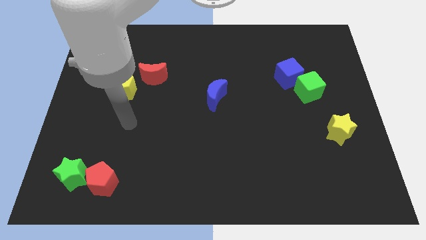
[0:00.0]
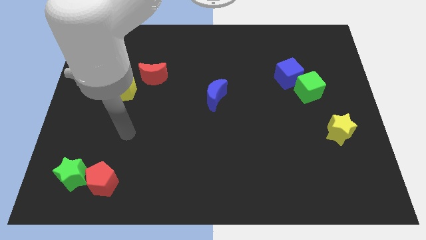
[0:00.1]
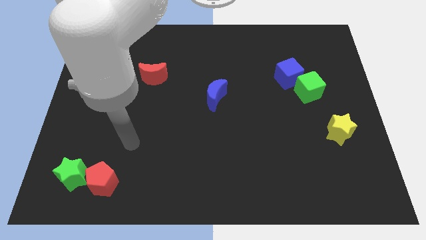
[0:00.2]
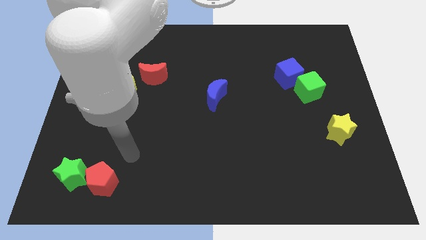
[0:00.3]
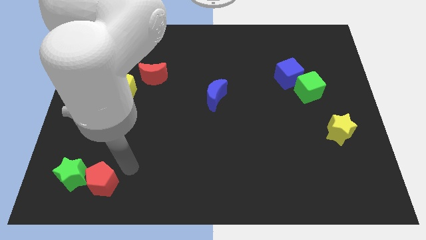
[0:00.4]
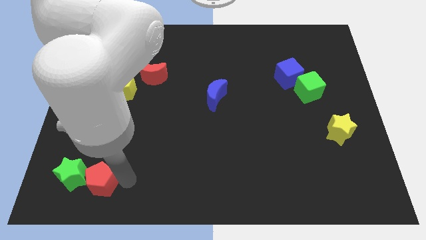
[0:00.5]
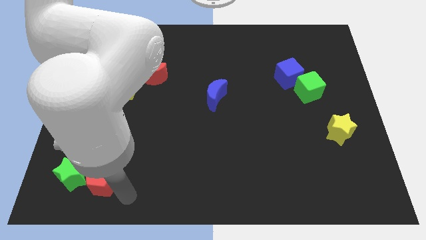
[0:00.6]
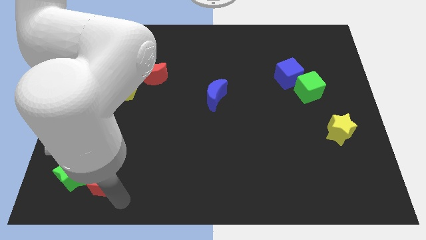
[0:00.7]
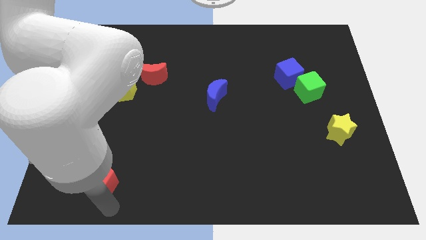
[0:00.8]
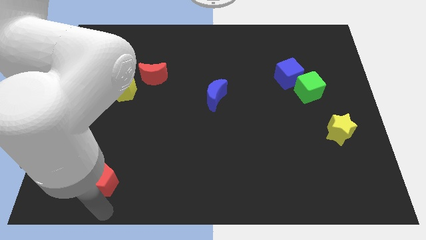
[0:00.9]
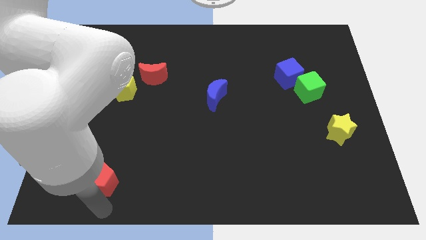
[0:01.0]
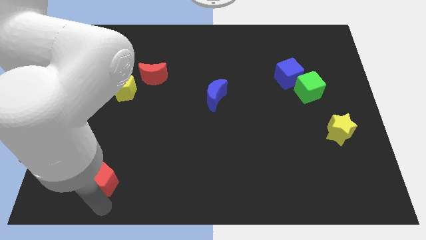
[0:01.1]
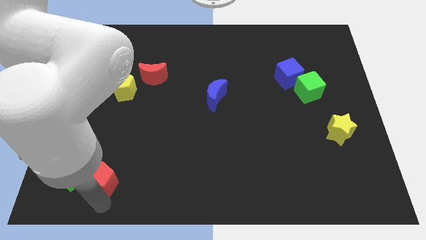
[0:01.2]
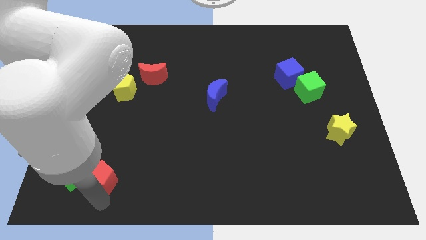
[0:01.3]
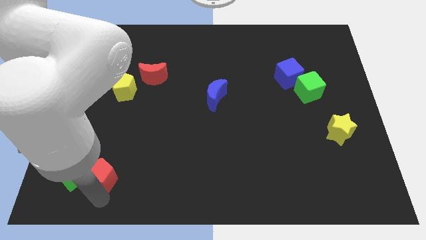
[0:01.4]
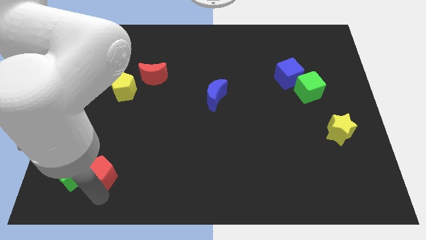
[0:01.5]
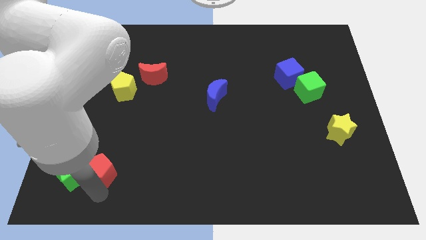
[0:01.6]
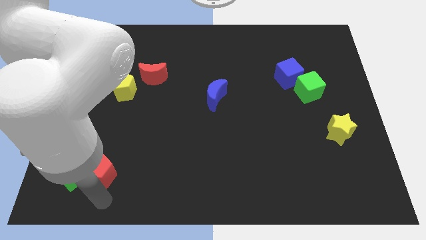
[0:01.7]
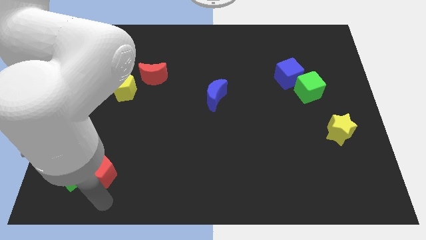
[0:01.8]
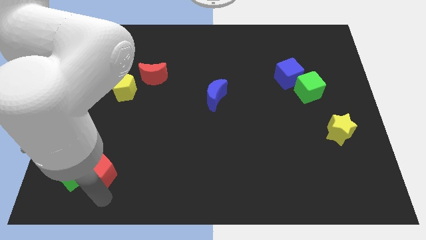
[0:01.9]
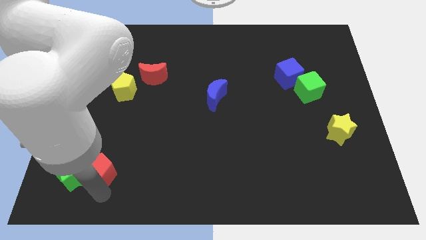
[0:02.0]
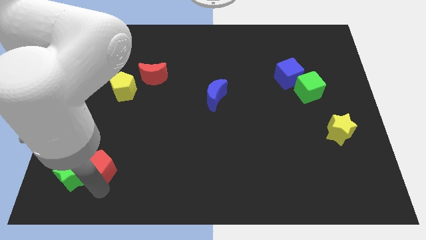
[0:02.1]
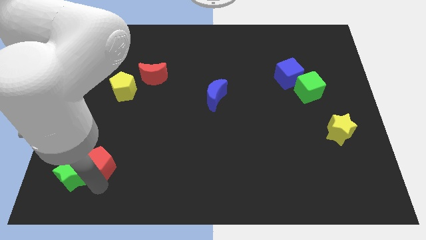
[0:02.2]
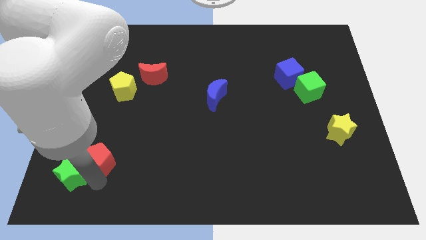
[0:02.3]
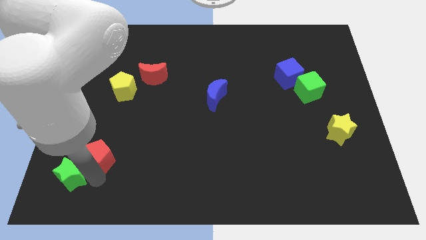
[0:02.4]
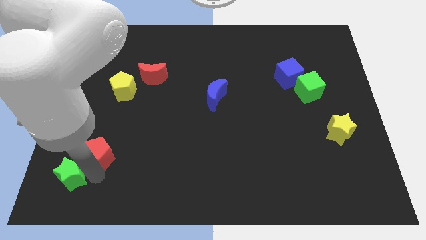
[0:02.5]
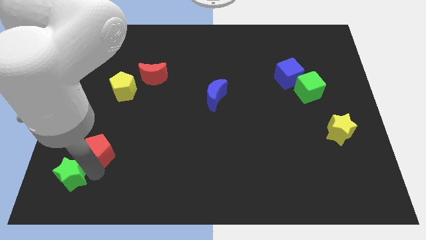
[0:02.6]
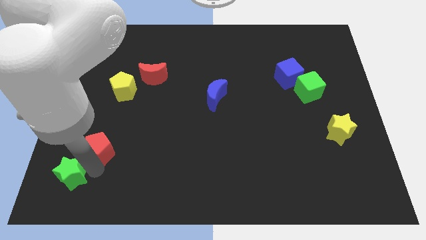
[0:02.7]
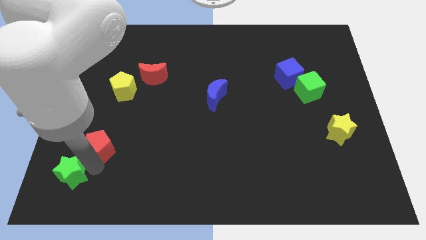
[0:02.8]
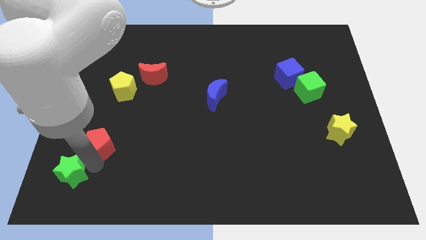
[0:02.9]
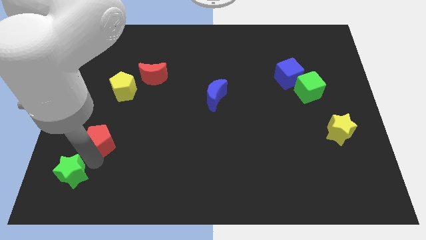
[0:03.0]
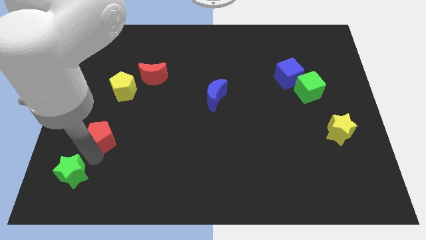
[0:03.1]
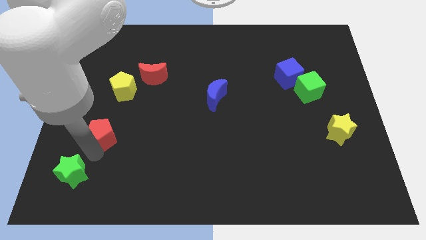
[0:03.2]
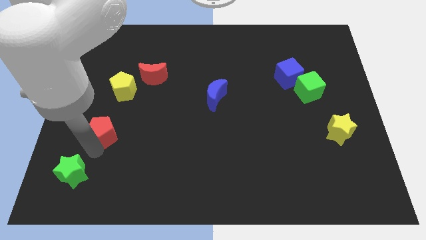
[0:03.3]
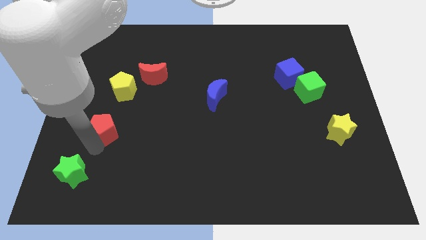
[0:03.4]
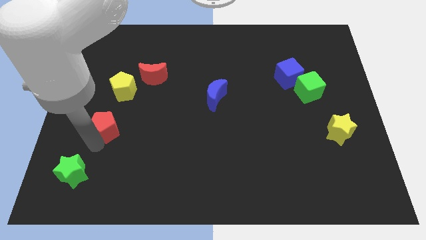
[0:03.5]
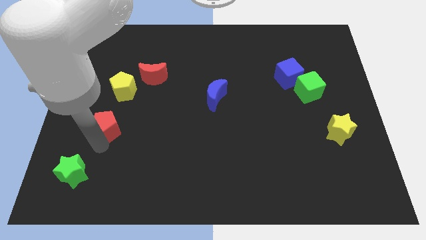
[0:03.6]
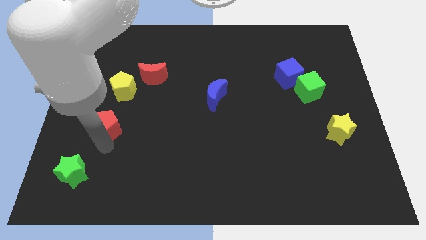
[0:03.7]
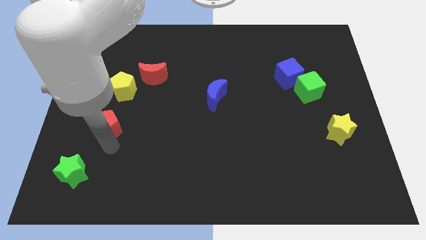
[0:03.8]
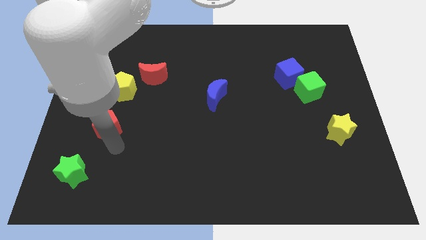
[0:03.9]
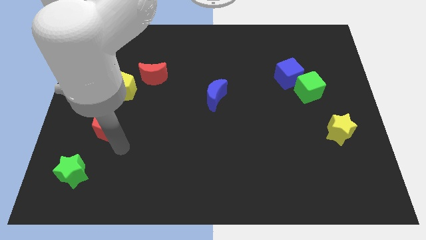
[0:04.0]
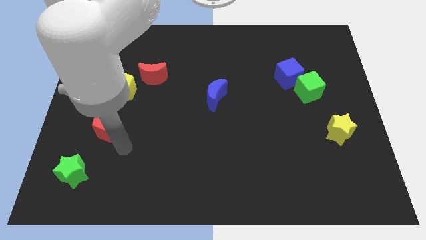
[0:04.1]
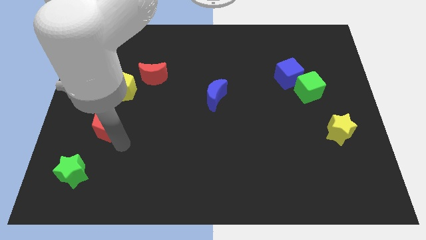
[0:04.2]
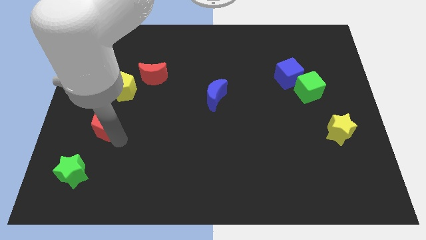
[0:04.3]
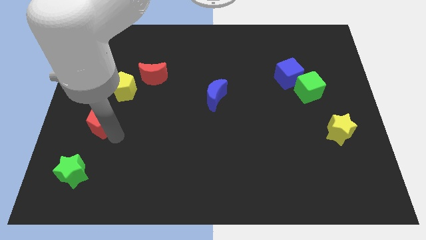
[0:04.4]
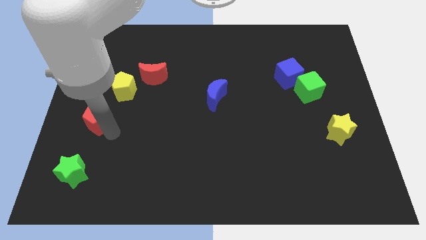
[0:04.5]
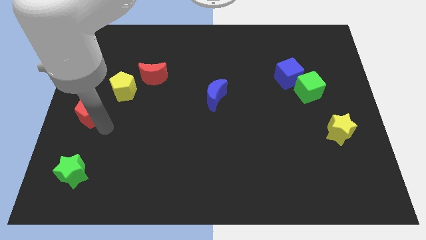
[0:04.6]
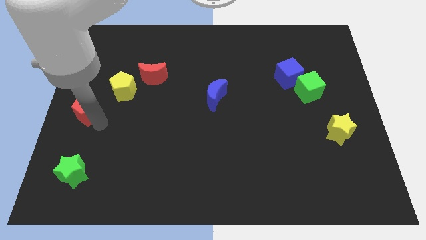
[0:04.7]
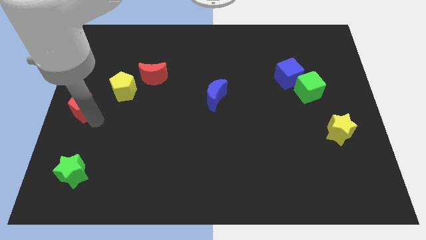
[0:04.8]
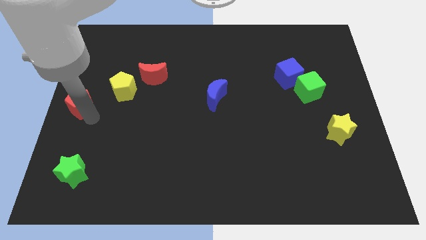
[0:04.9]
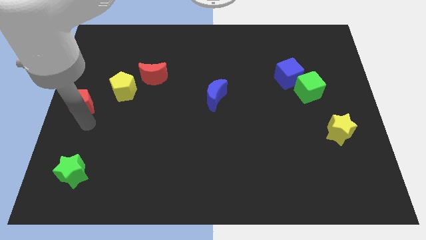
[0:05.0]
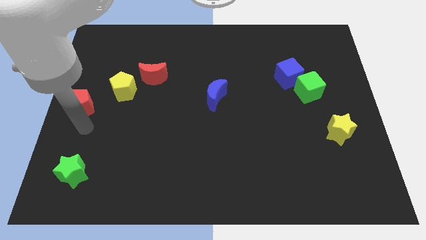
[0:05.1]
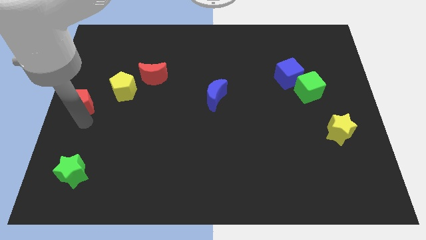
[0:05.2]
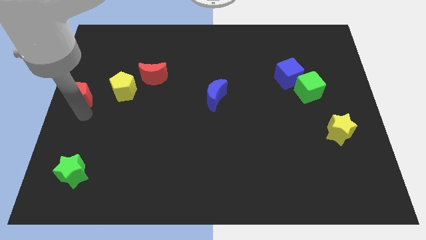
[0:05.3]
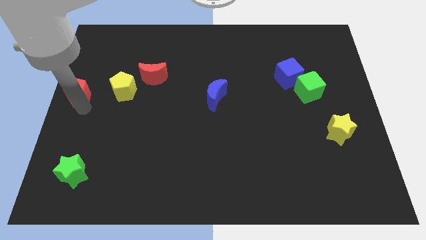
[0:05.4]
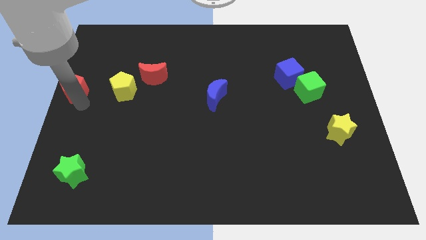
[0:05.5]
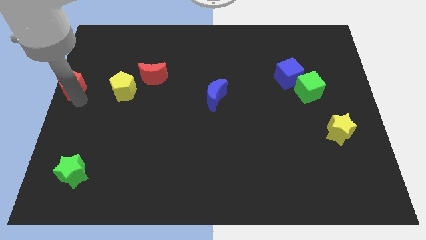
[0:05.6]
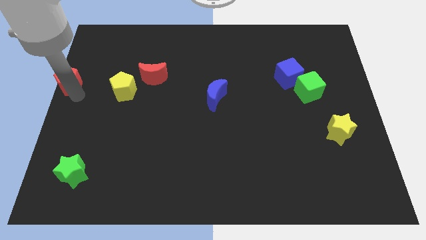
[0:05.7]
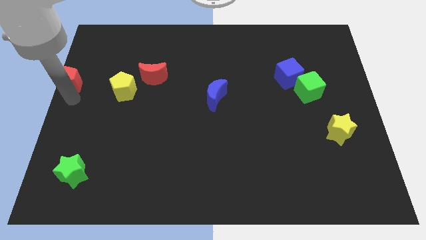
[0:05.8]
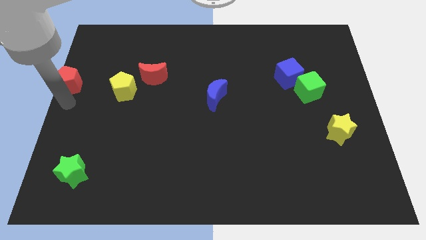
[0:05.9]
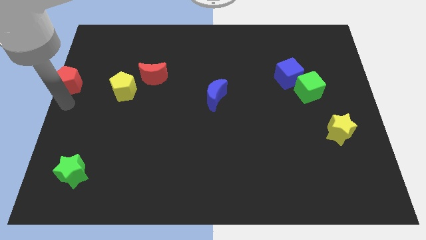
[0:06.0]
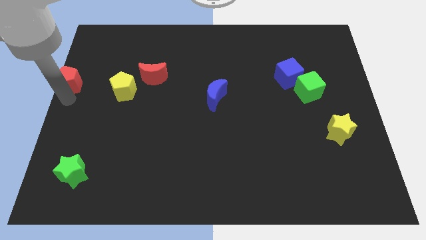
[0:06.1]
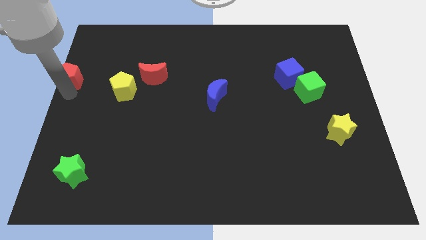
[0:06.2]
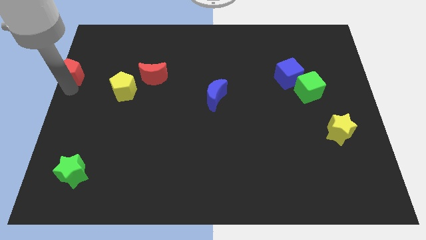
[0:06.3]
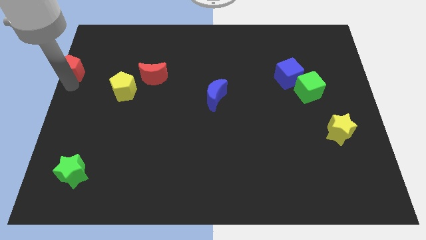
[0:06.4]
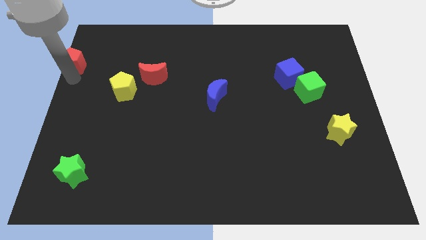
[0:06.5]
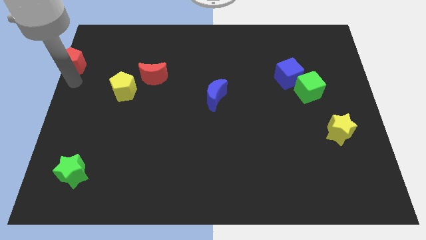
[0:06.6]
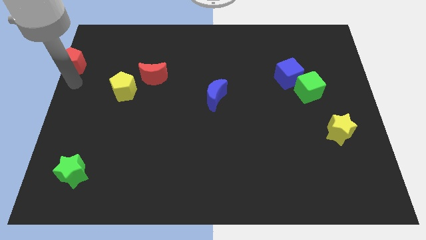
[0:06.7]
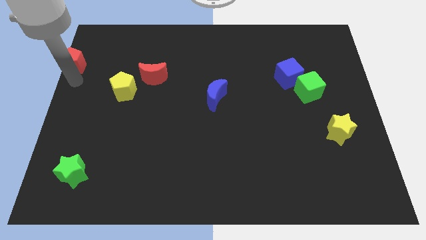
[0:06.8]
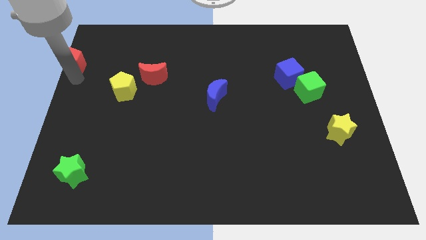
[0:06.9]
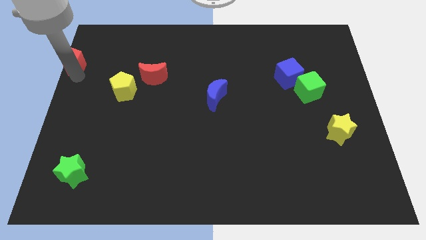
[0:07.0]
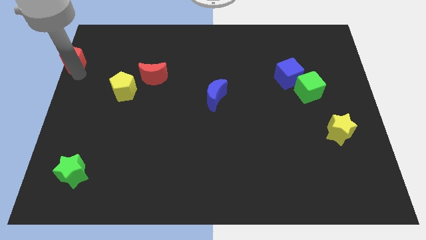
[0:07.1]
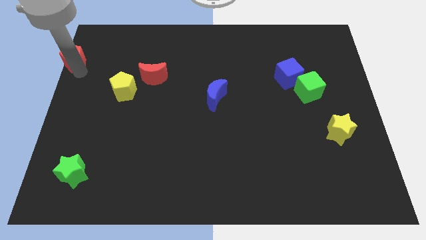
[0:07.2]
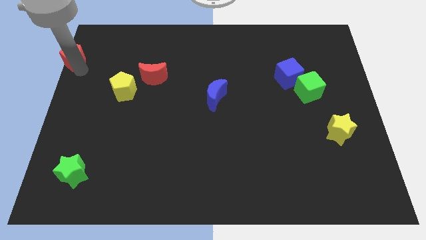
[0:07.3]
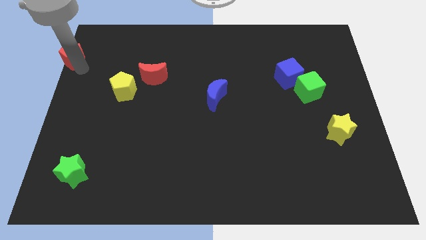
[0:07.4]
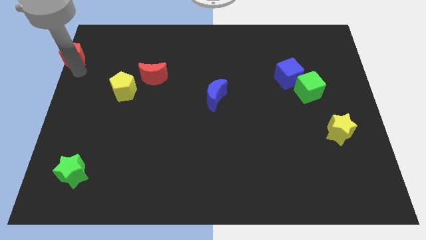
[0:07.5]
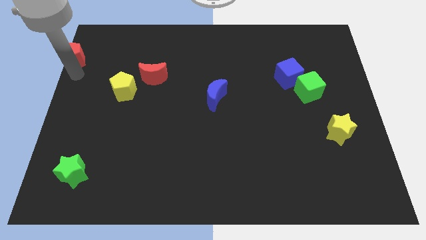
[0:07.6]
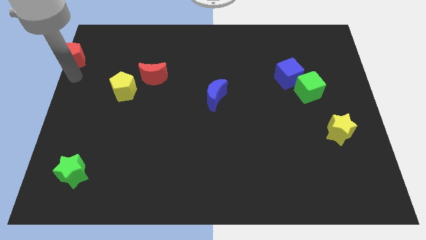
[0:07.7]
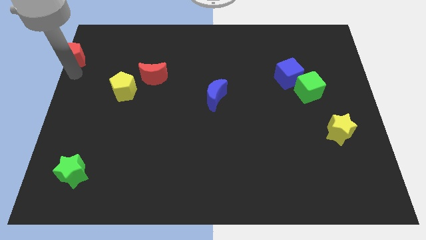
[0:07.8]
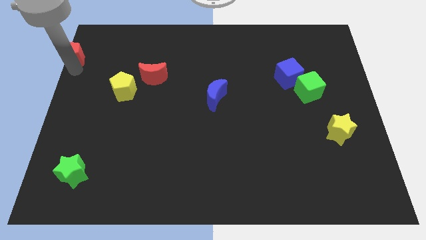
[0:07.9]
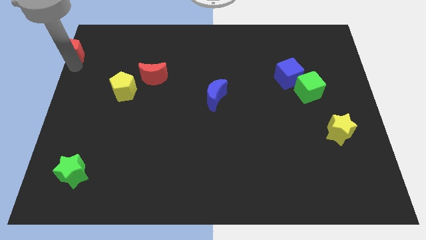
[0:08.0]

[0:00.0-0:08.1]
slide the red pentagon to the top left

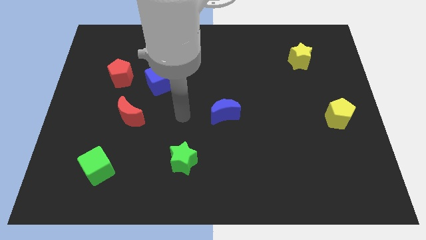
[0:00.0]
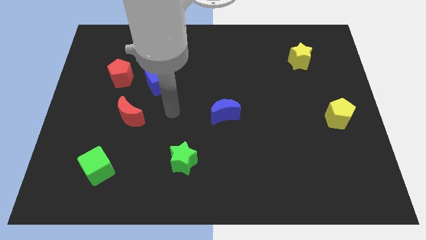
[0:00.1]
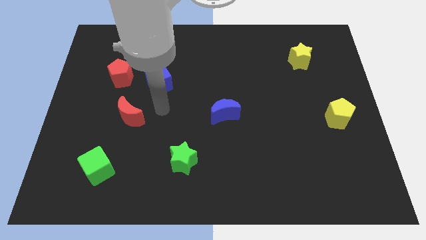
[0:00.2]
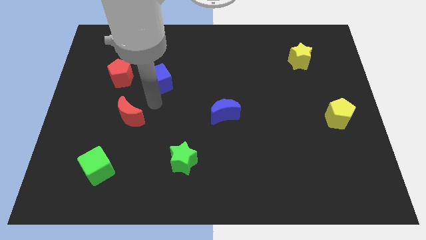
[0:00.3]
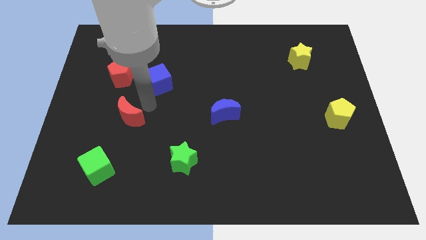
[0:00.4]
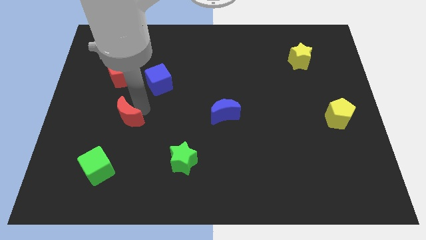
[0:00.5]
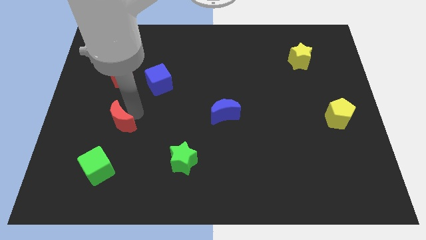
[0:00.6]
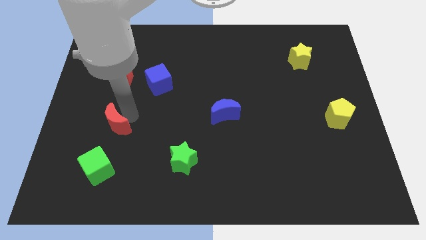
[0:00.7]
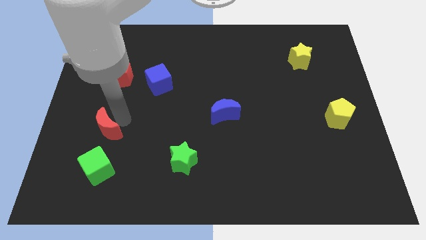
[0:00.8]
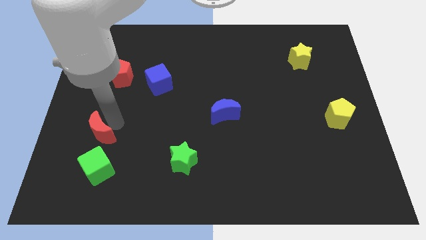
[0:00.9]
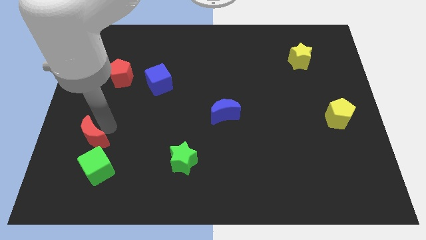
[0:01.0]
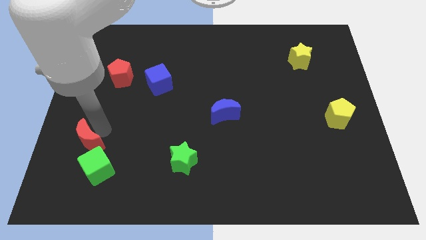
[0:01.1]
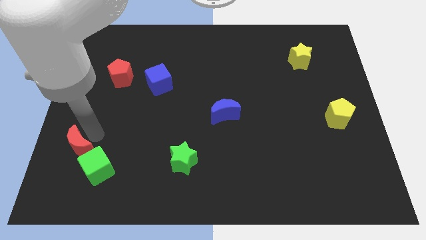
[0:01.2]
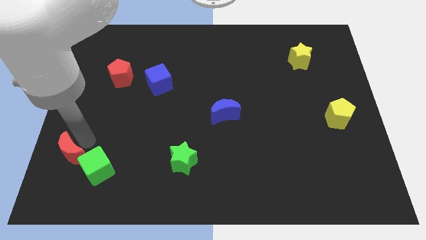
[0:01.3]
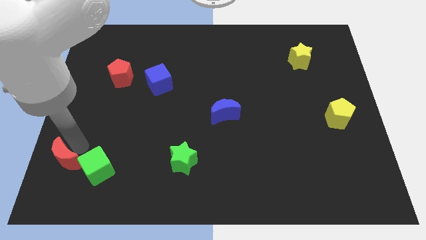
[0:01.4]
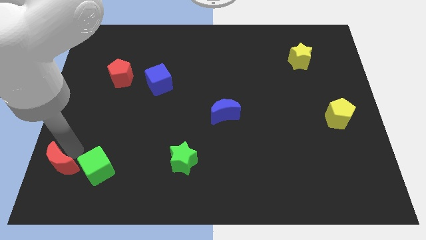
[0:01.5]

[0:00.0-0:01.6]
slide the red moon to the lower left corner
